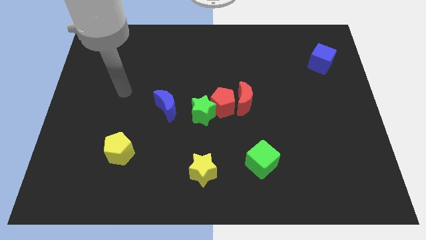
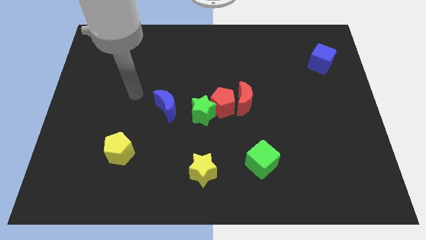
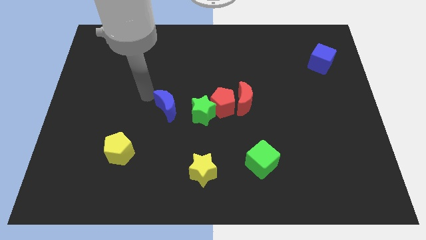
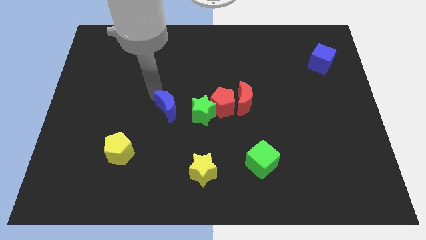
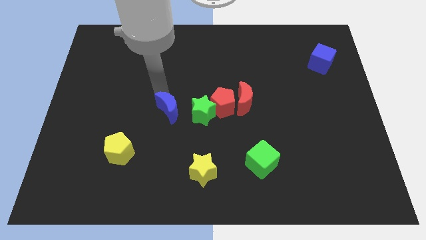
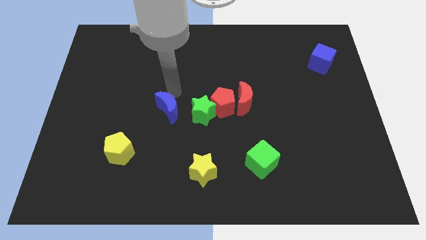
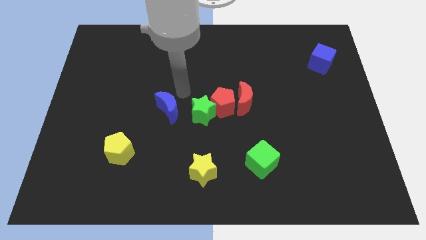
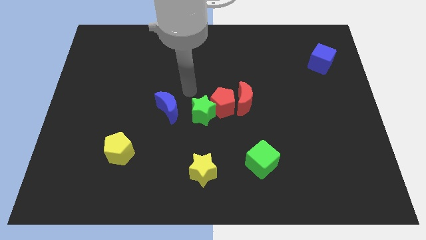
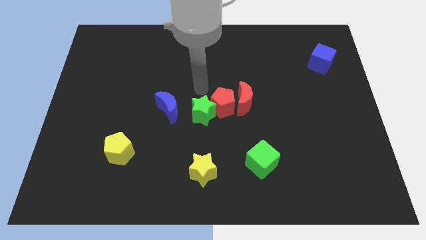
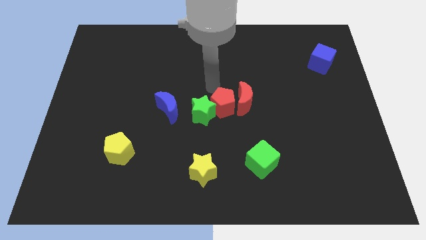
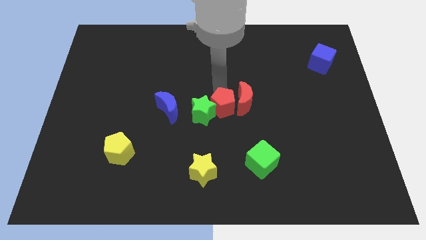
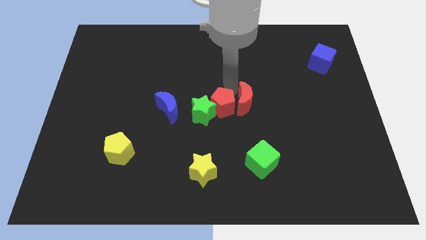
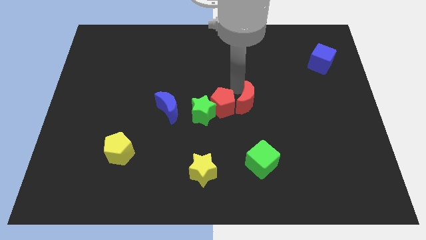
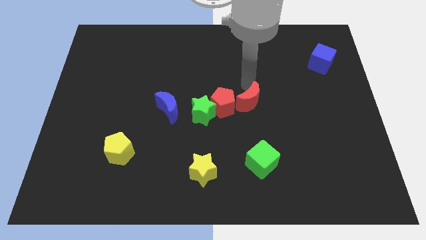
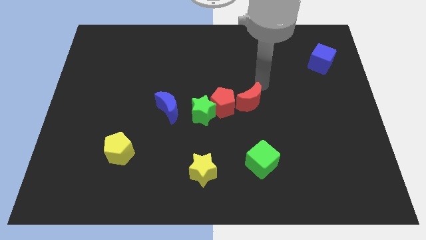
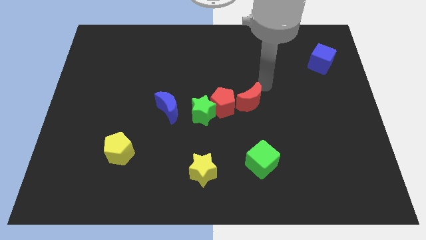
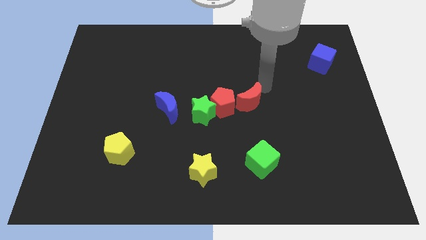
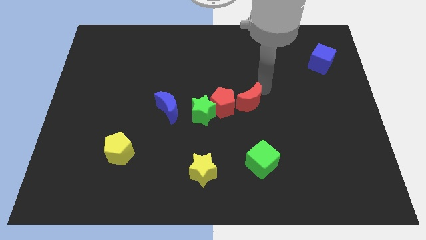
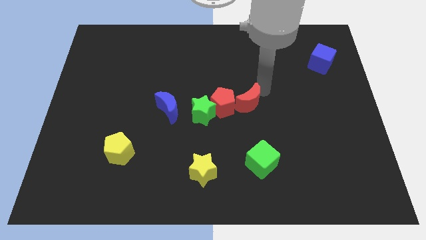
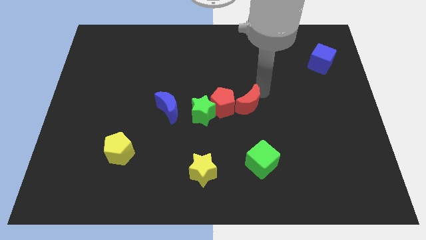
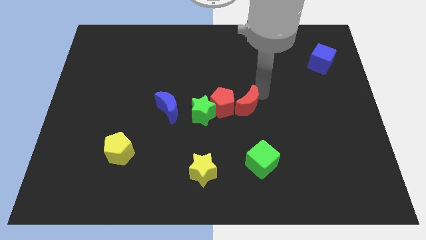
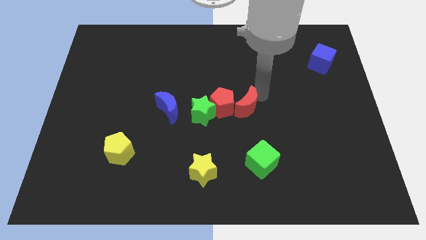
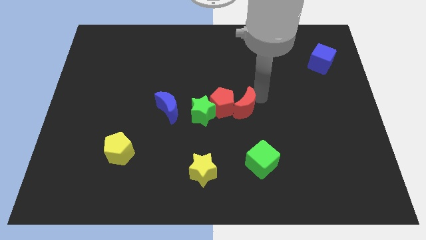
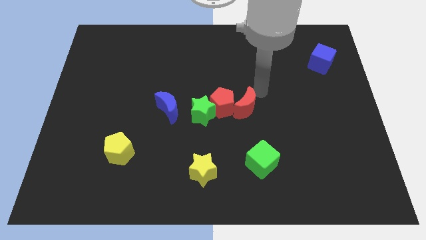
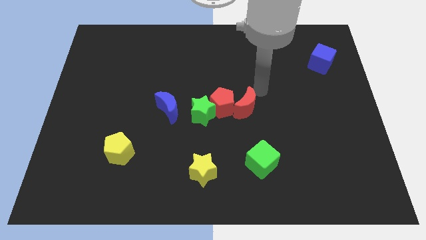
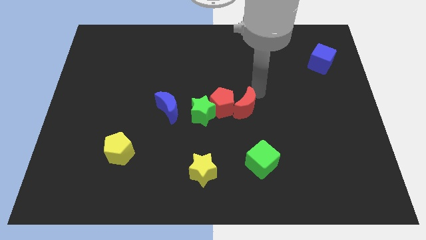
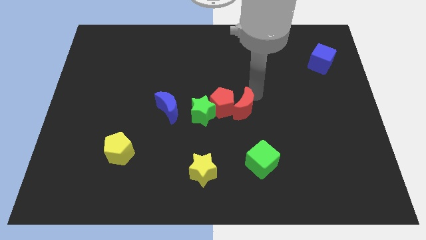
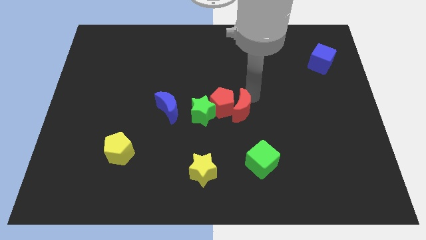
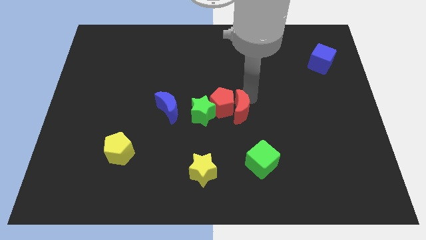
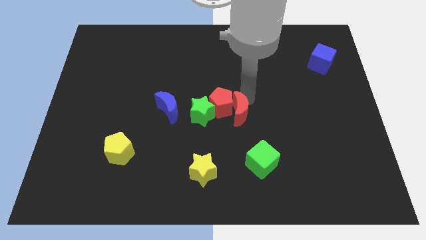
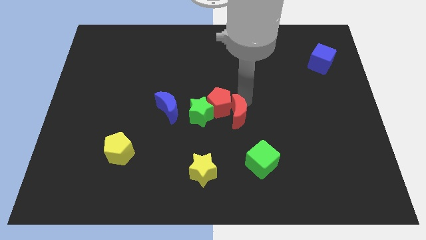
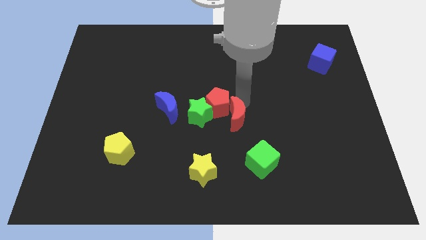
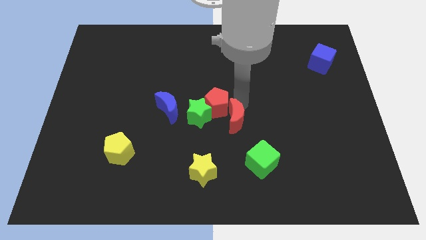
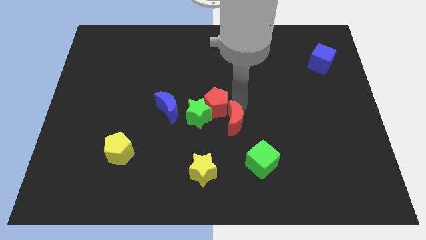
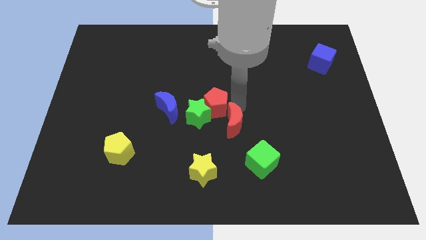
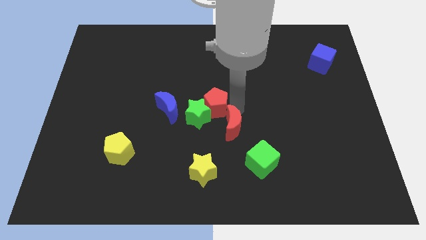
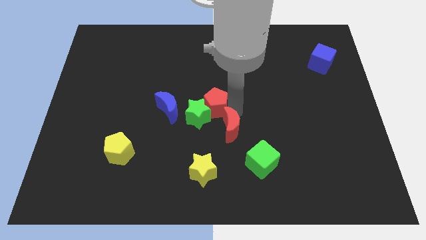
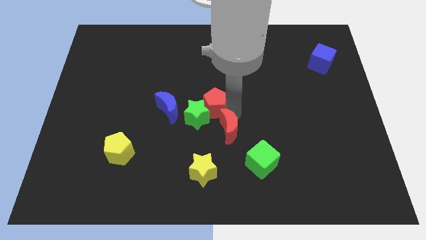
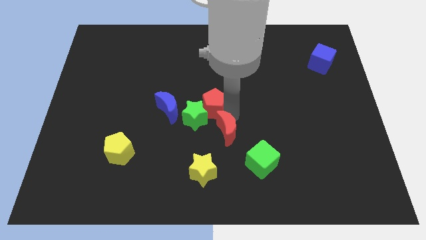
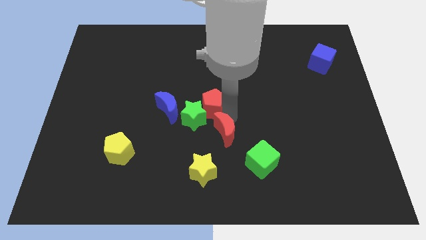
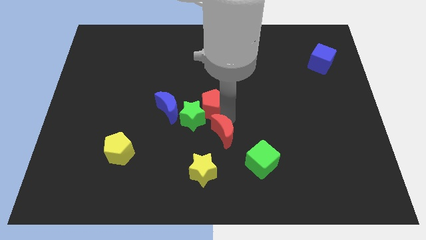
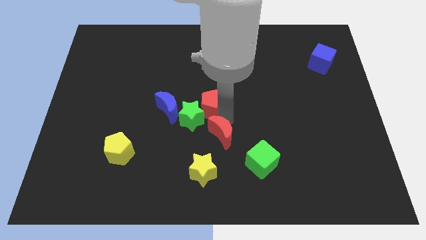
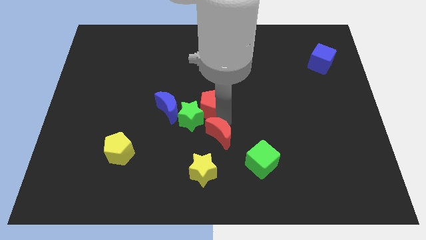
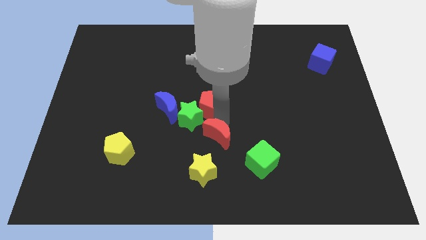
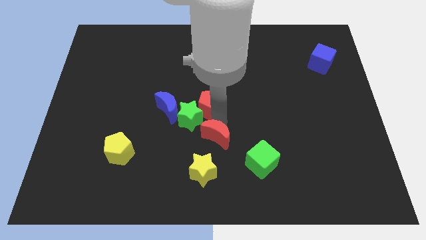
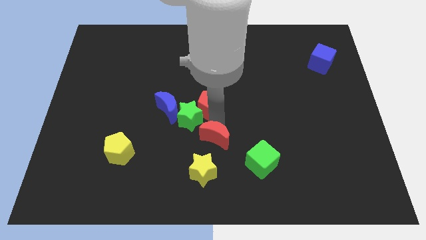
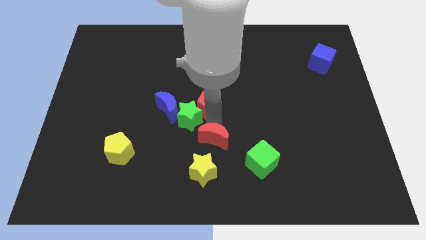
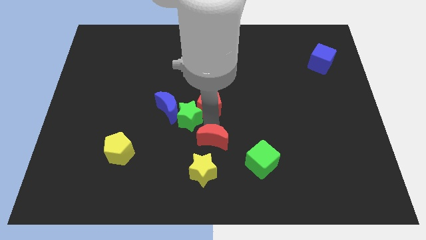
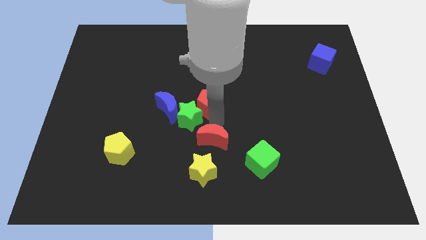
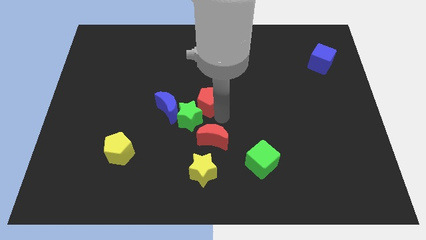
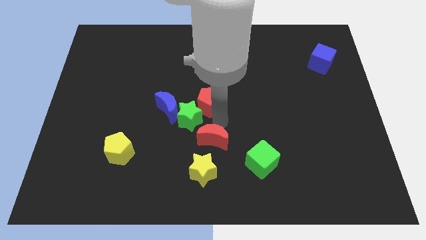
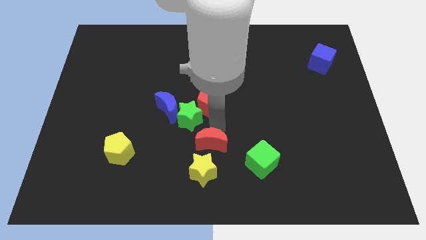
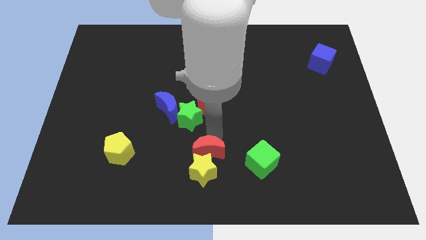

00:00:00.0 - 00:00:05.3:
slide the red moon close to the yellow star

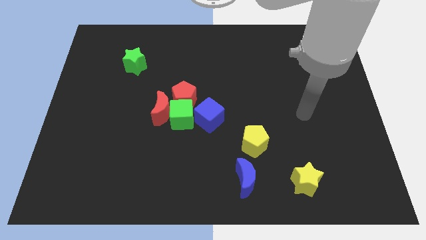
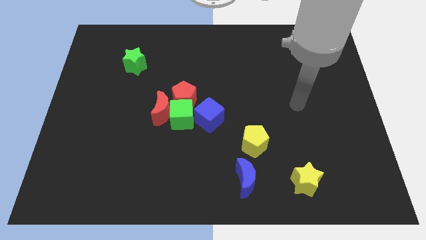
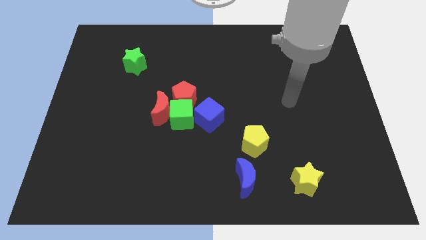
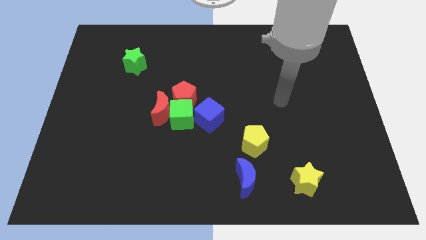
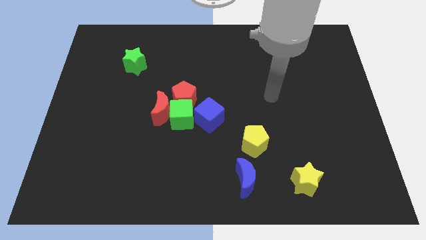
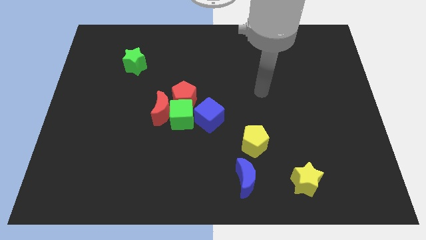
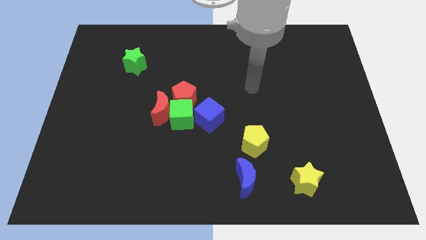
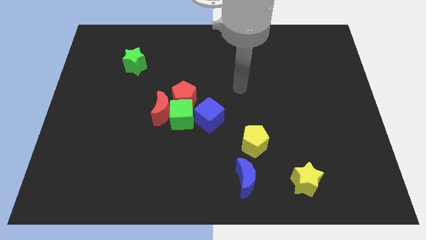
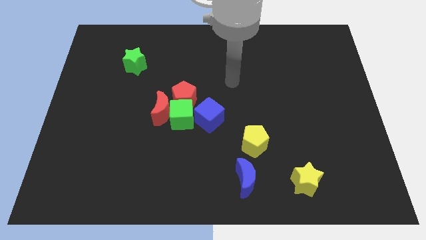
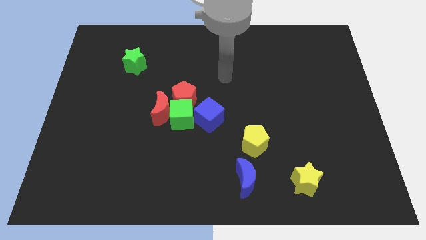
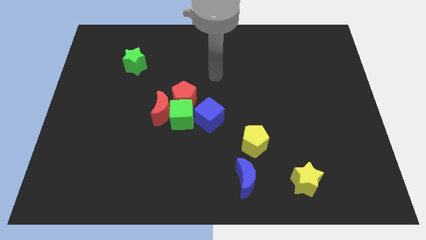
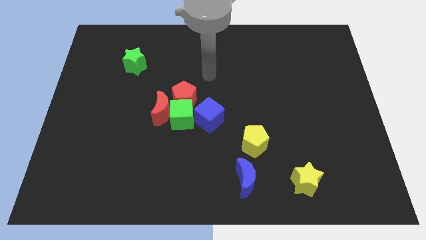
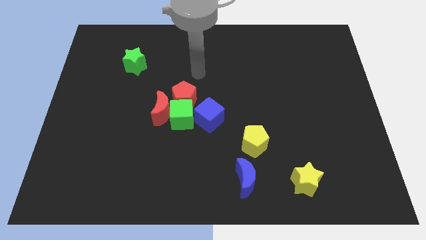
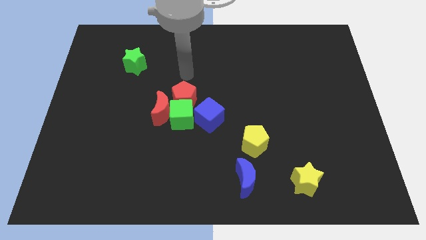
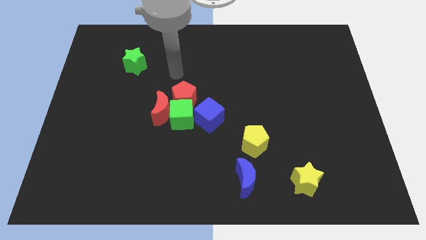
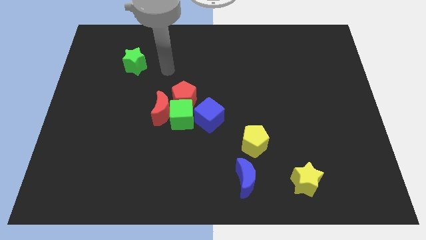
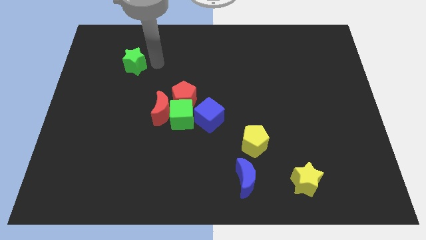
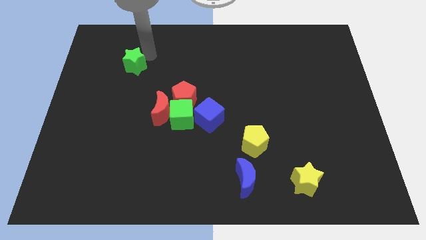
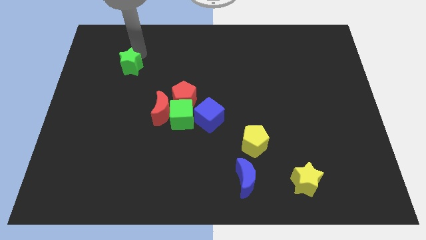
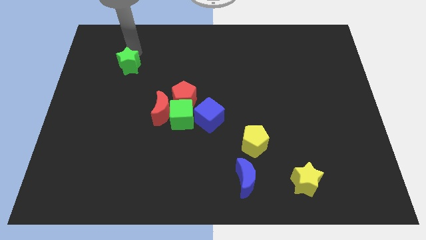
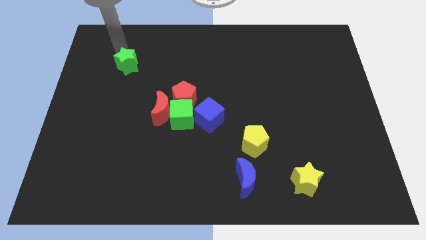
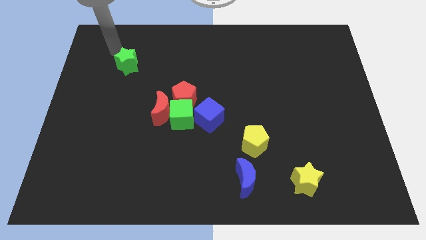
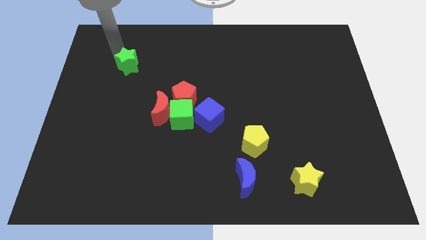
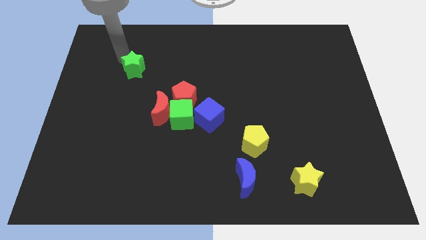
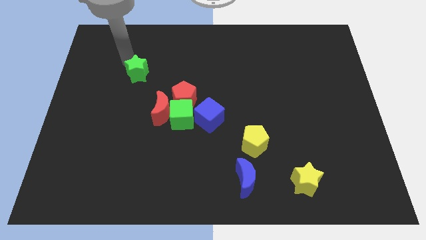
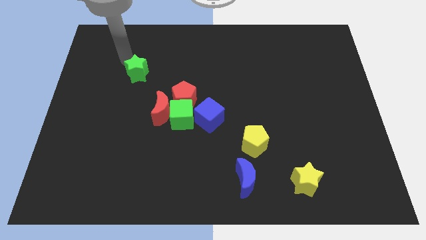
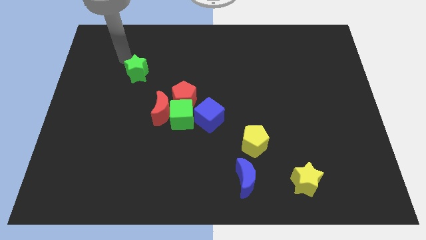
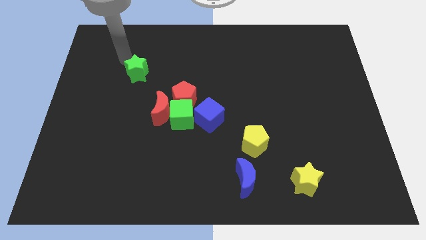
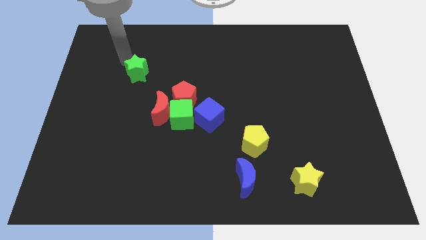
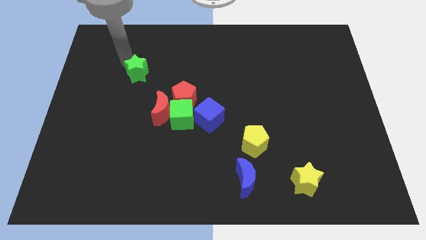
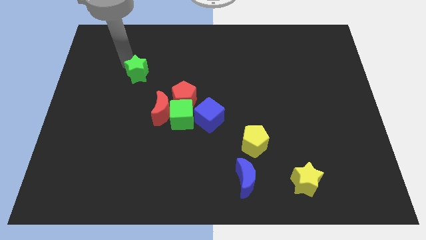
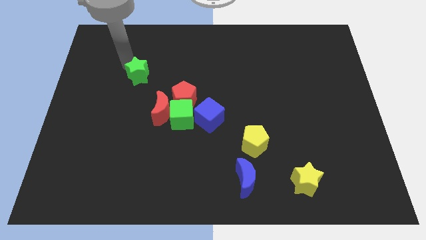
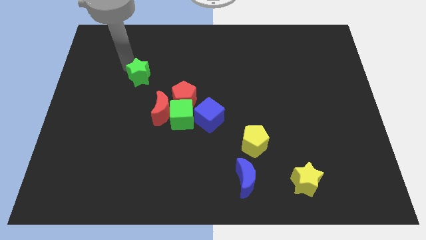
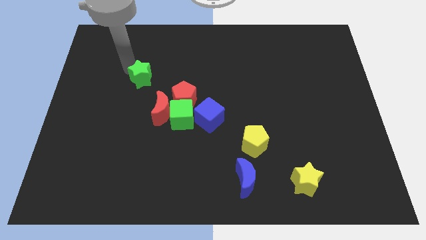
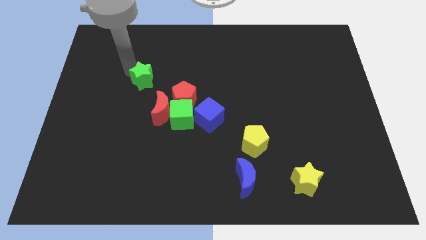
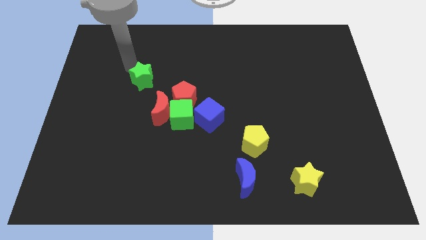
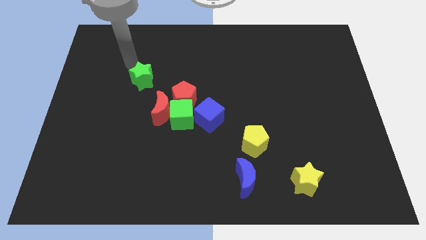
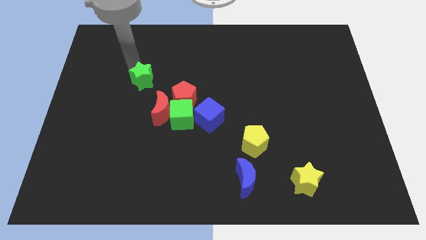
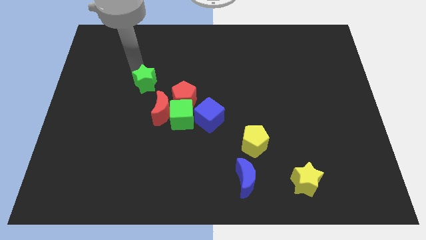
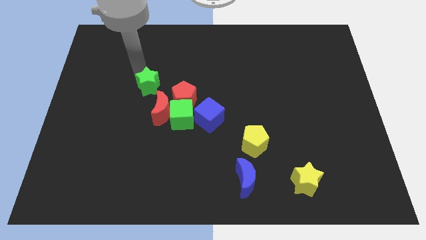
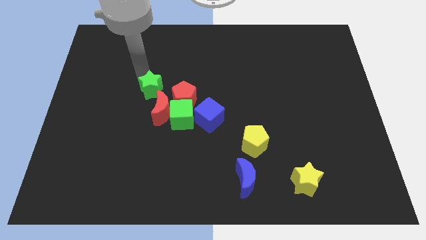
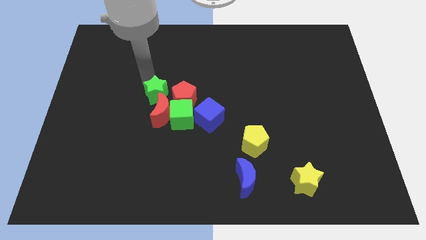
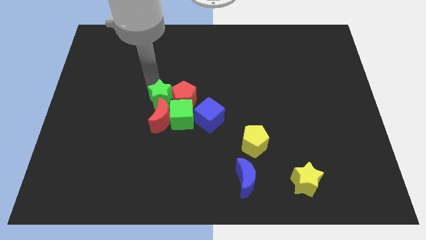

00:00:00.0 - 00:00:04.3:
move the green star towards the red moon
